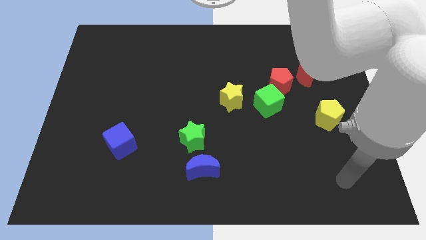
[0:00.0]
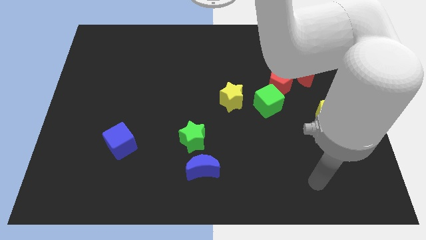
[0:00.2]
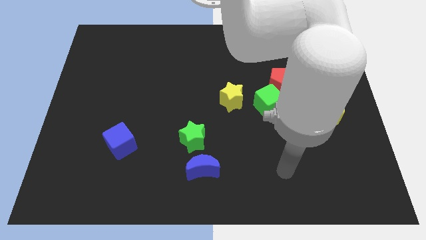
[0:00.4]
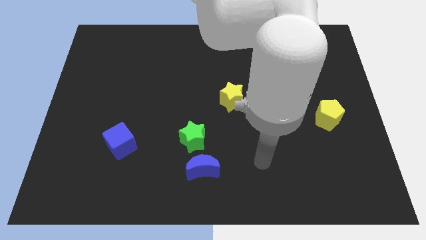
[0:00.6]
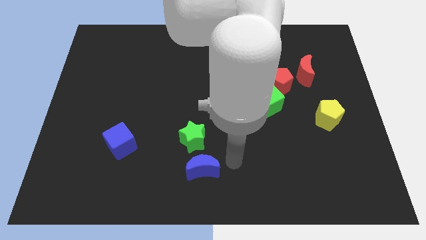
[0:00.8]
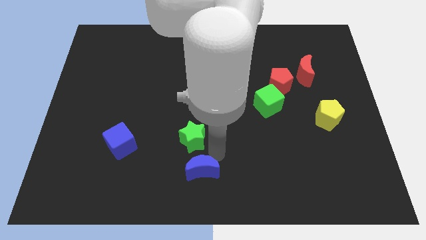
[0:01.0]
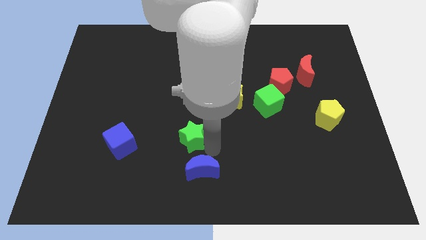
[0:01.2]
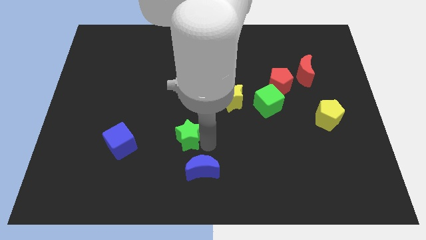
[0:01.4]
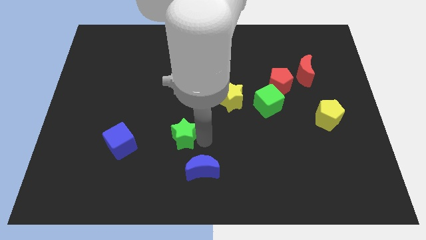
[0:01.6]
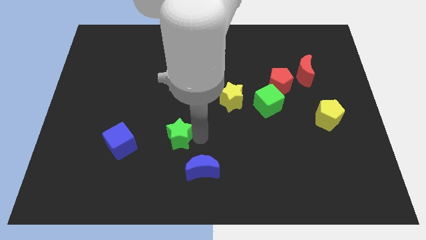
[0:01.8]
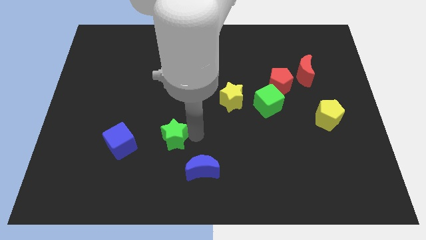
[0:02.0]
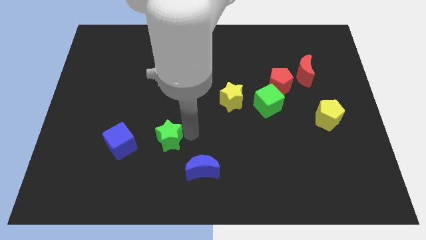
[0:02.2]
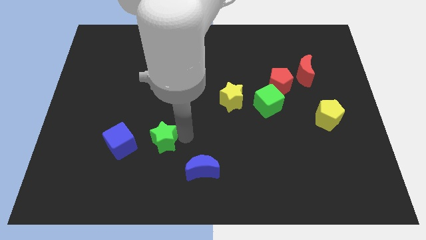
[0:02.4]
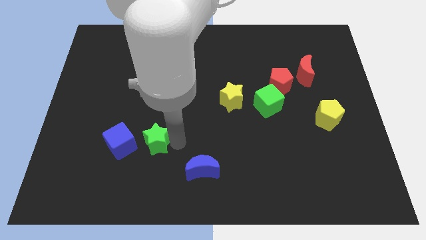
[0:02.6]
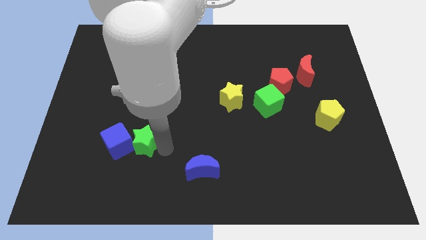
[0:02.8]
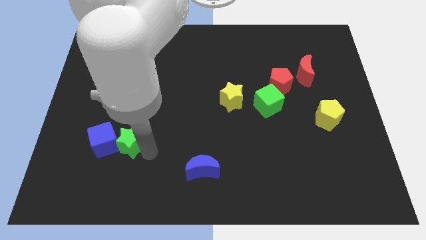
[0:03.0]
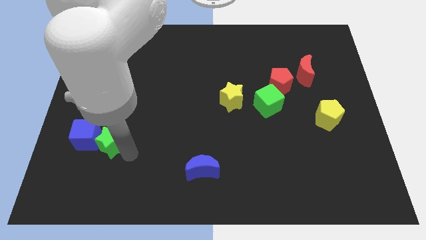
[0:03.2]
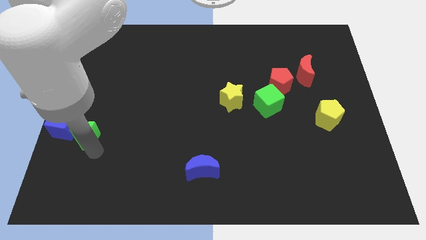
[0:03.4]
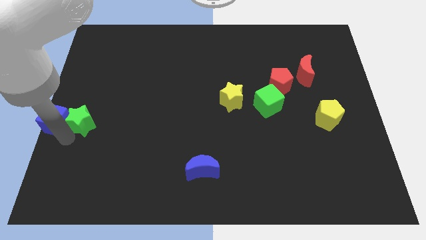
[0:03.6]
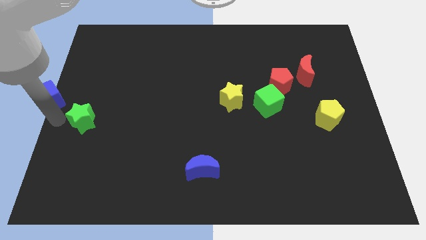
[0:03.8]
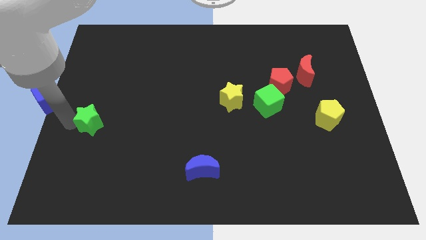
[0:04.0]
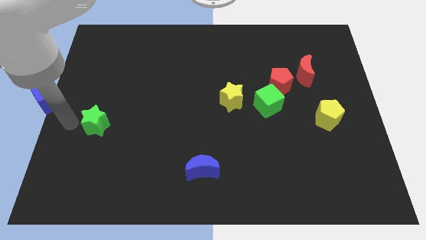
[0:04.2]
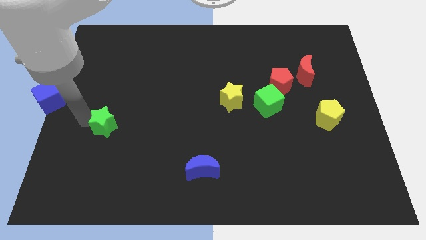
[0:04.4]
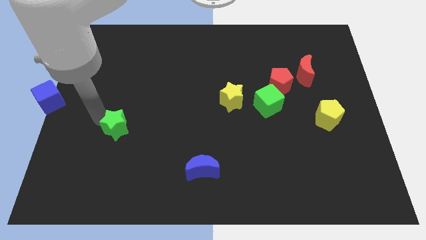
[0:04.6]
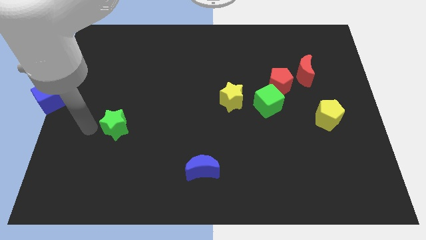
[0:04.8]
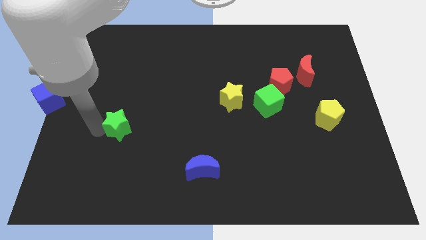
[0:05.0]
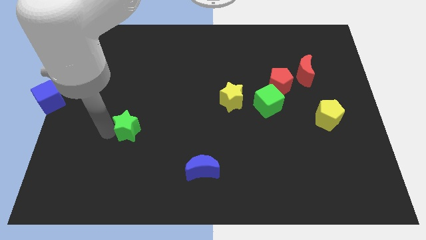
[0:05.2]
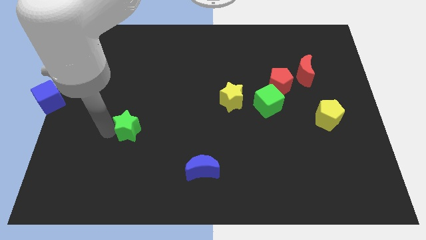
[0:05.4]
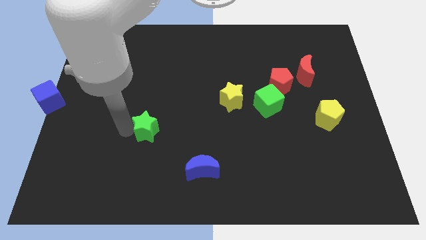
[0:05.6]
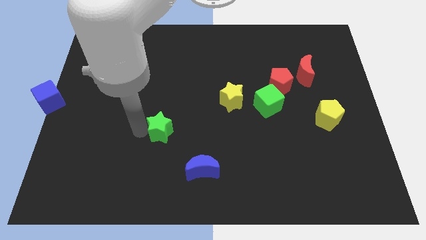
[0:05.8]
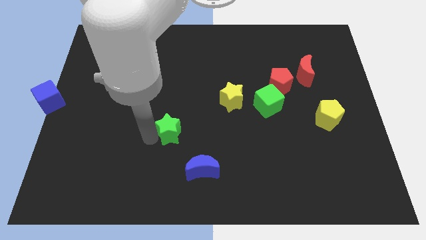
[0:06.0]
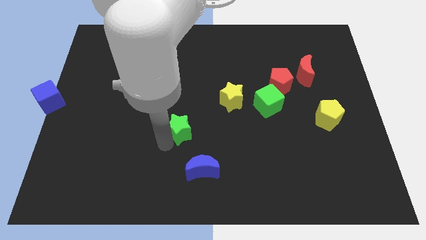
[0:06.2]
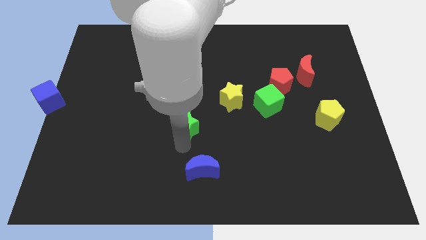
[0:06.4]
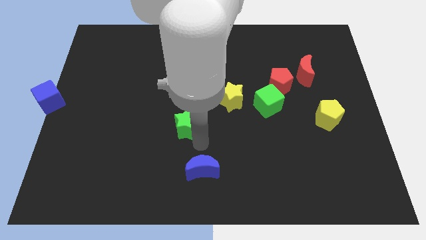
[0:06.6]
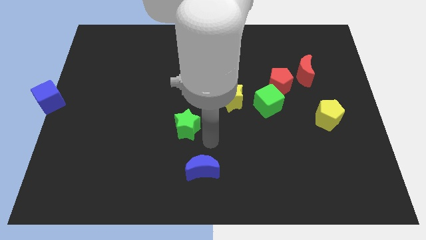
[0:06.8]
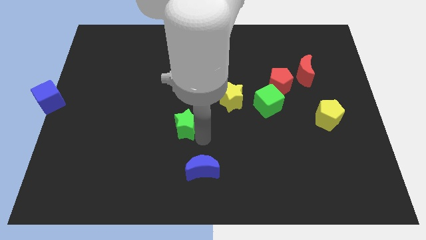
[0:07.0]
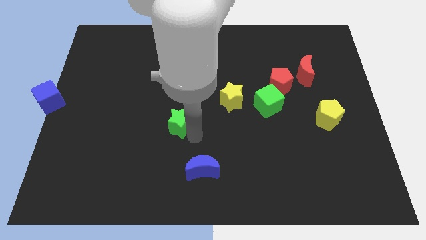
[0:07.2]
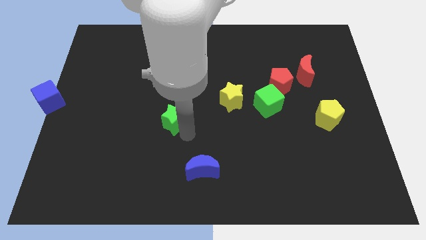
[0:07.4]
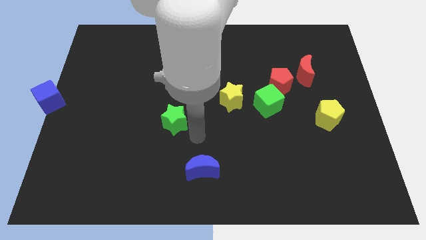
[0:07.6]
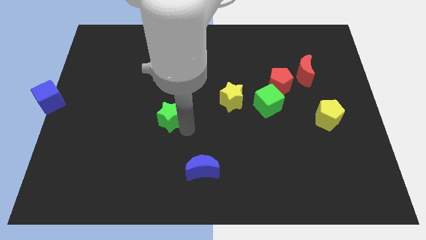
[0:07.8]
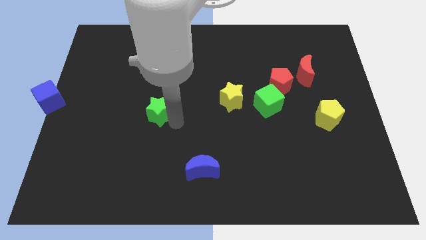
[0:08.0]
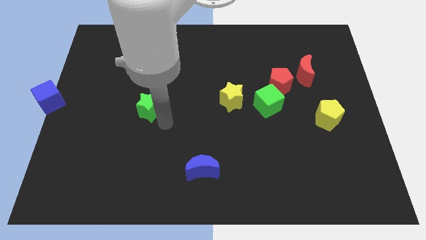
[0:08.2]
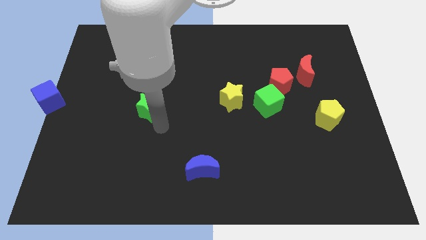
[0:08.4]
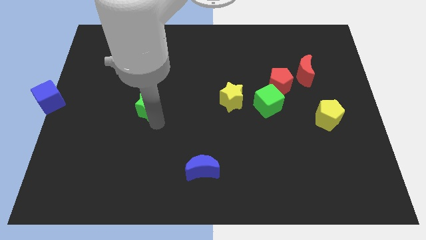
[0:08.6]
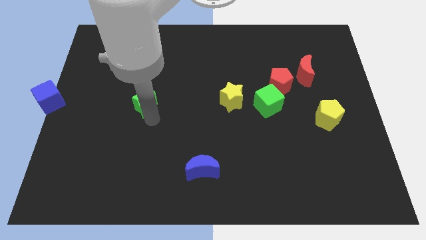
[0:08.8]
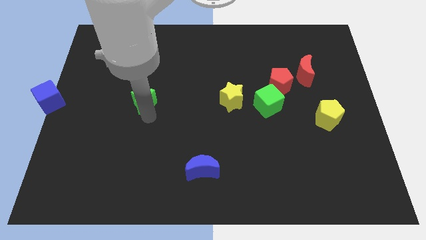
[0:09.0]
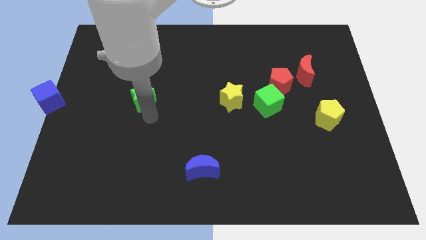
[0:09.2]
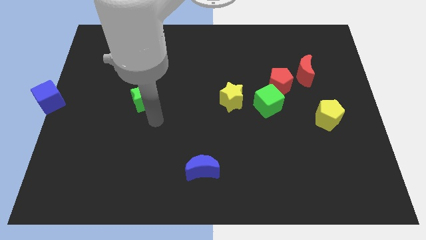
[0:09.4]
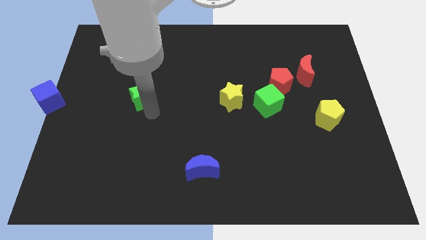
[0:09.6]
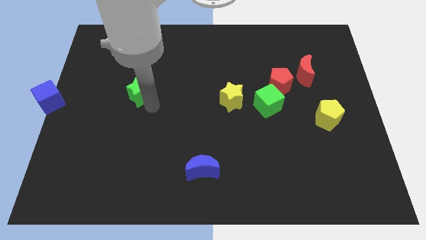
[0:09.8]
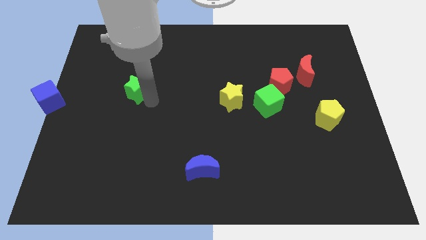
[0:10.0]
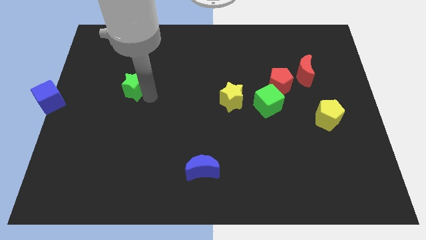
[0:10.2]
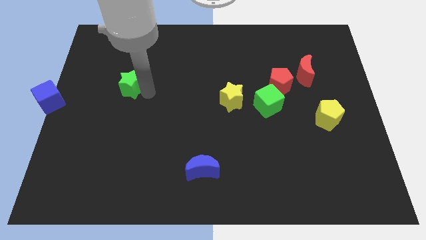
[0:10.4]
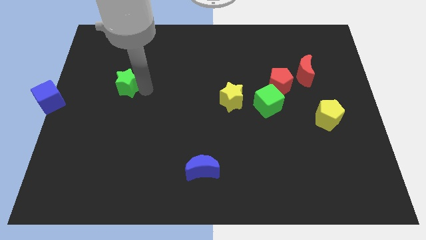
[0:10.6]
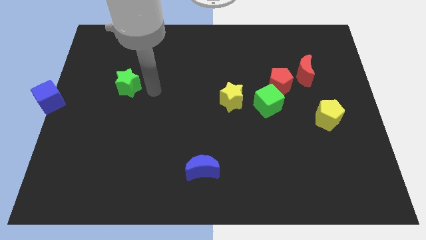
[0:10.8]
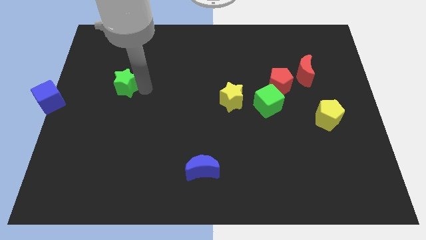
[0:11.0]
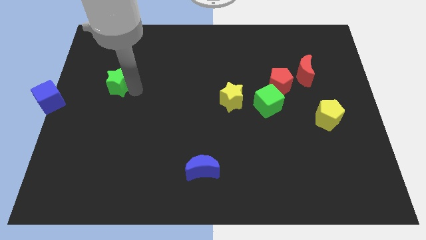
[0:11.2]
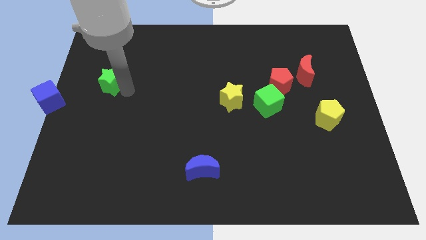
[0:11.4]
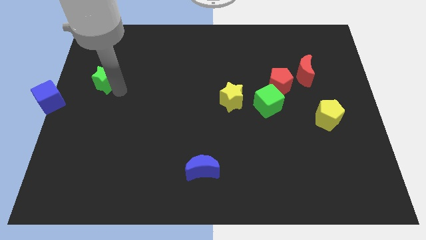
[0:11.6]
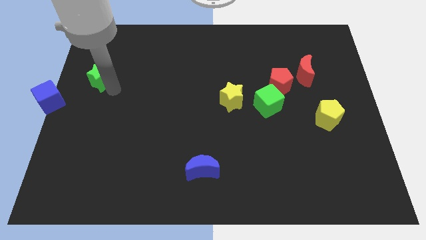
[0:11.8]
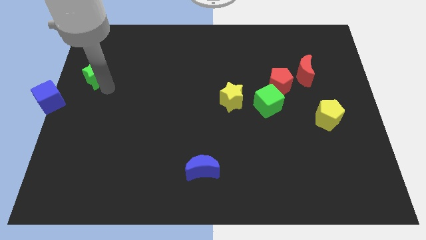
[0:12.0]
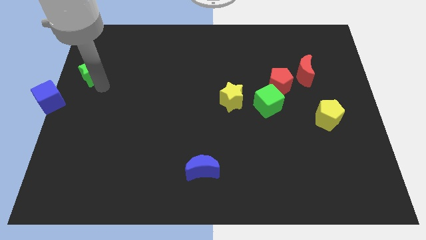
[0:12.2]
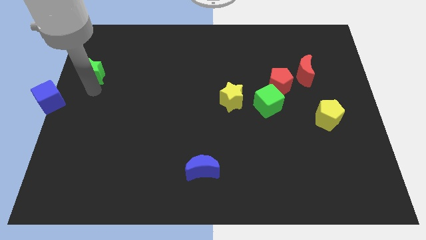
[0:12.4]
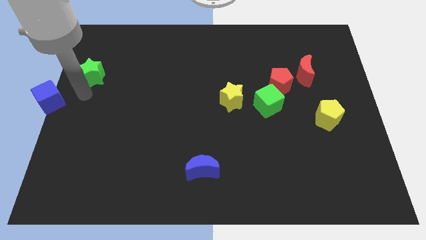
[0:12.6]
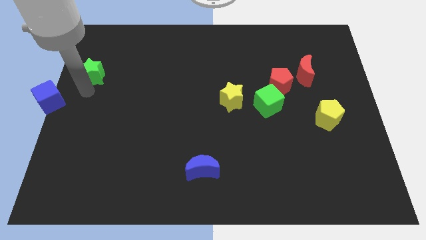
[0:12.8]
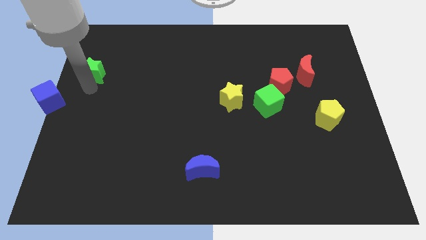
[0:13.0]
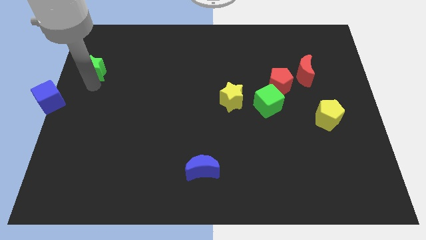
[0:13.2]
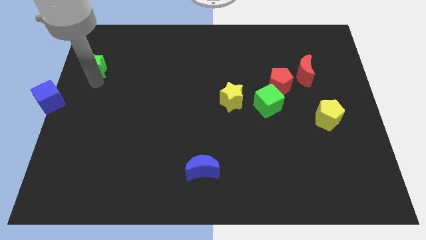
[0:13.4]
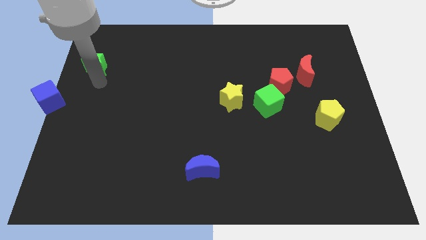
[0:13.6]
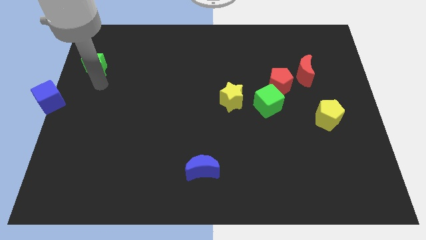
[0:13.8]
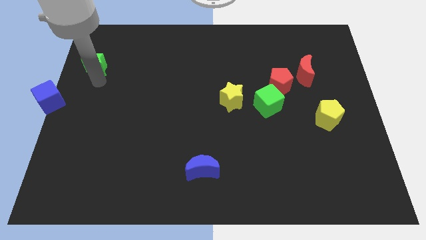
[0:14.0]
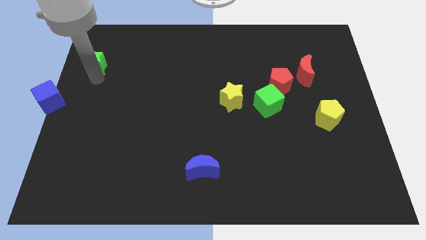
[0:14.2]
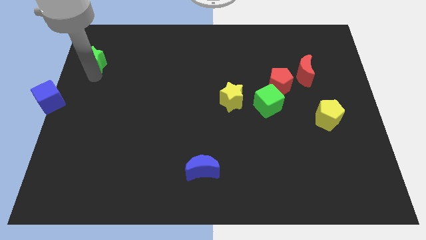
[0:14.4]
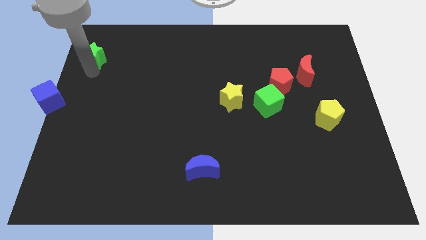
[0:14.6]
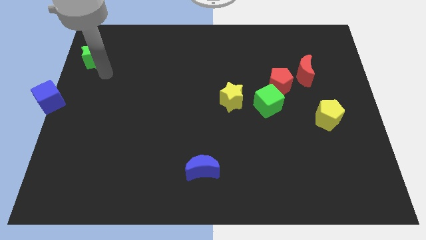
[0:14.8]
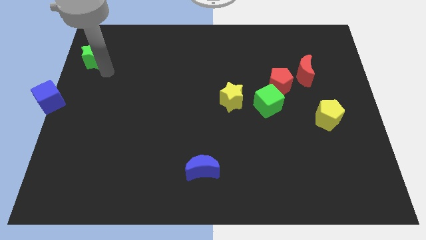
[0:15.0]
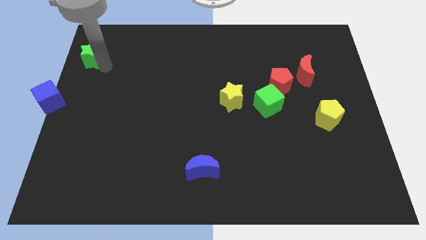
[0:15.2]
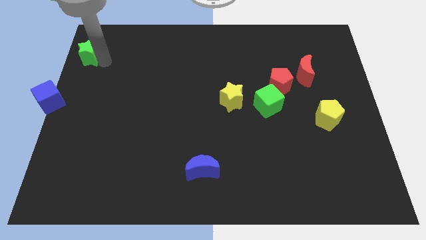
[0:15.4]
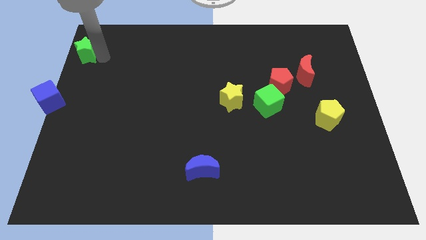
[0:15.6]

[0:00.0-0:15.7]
put the green star to the top left corner
